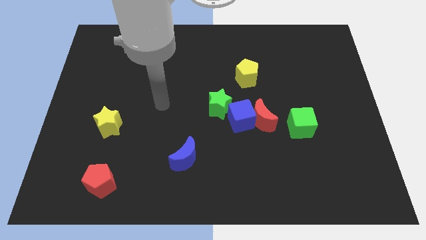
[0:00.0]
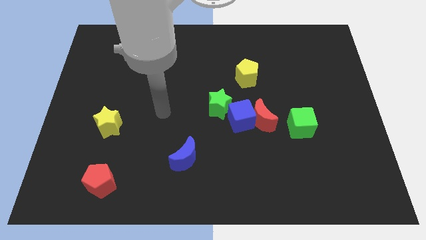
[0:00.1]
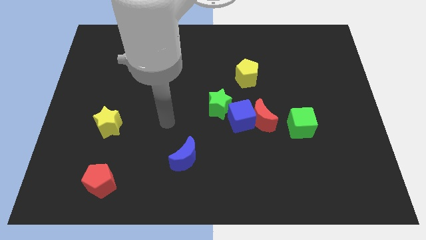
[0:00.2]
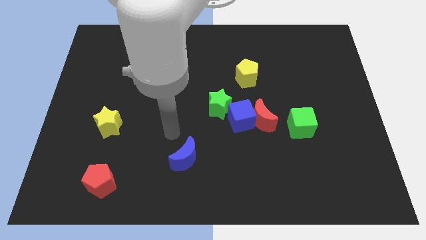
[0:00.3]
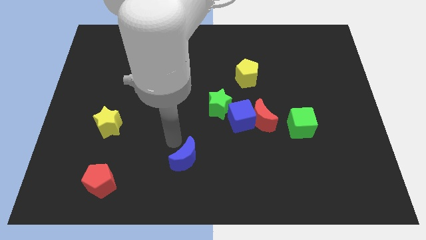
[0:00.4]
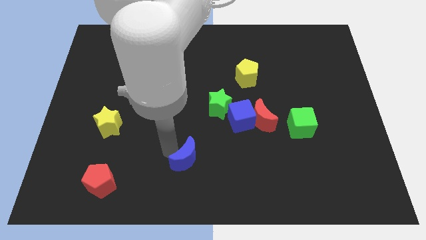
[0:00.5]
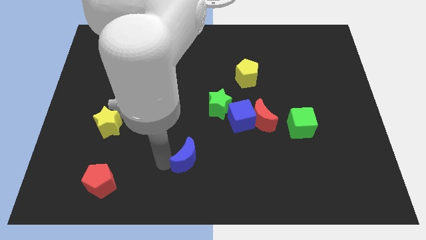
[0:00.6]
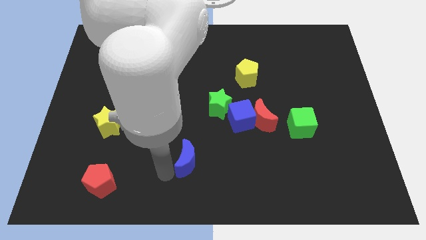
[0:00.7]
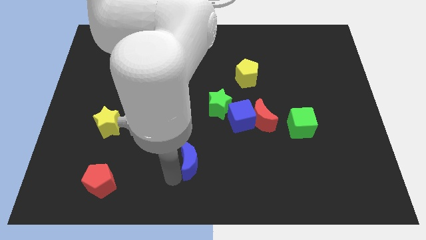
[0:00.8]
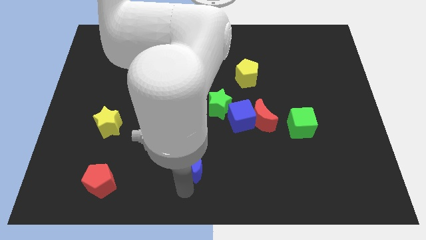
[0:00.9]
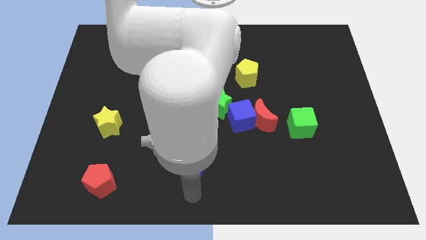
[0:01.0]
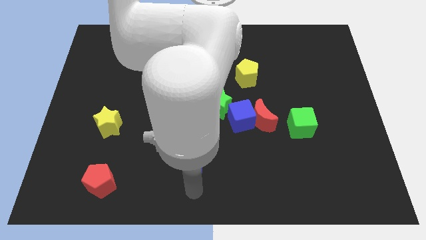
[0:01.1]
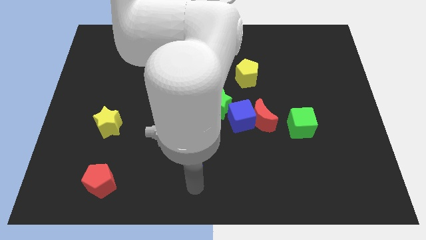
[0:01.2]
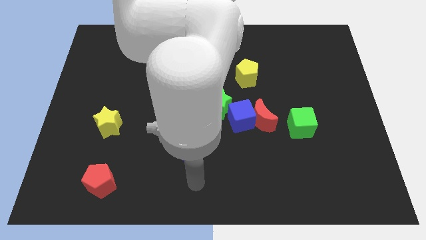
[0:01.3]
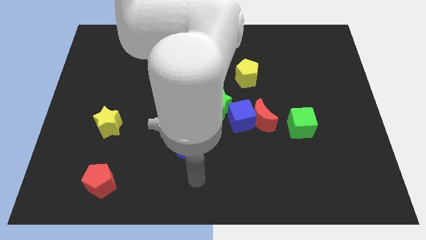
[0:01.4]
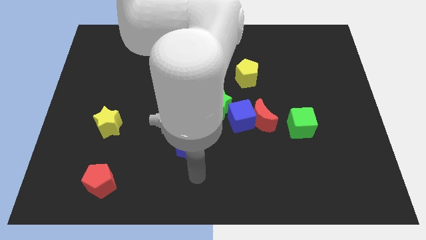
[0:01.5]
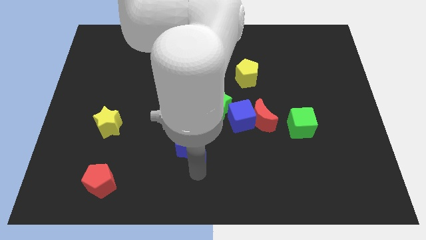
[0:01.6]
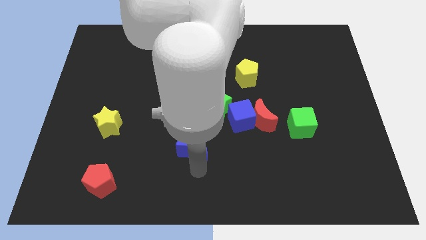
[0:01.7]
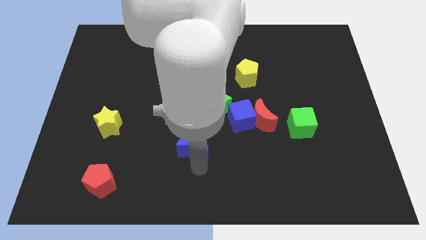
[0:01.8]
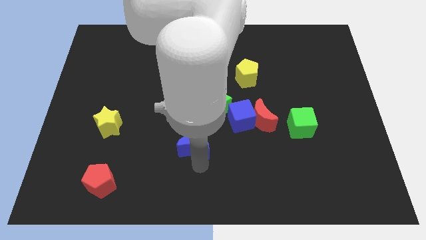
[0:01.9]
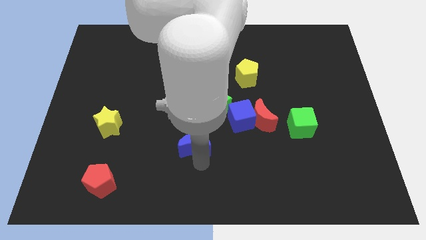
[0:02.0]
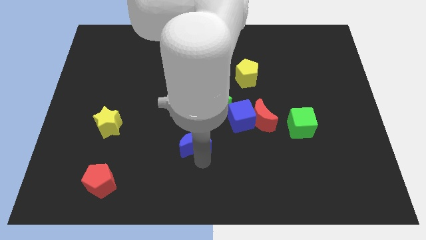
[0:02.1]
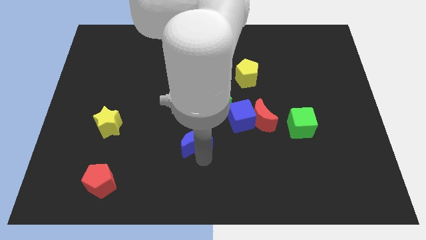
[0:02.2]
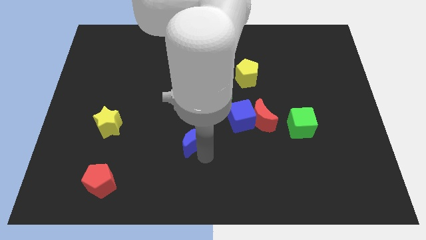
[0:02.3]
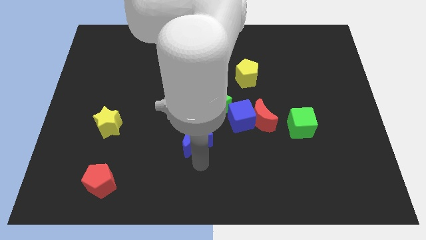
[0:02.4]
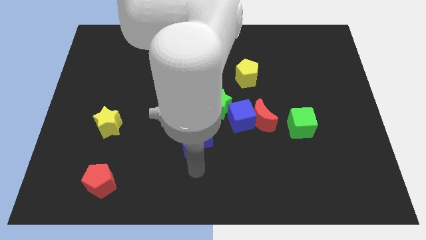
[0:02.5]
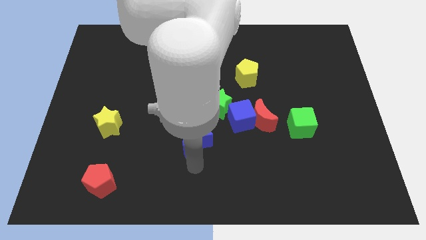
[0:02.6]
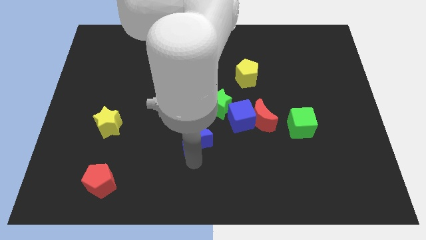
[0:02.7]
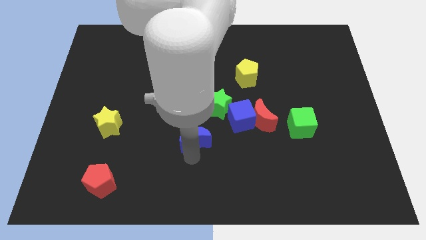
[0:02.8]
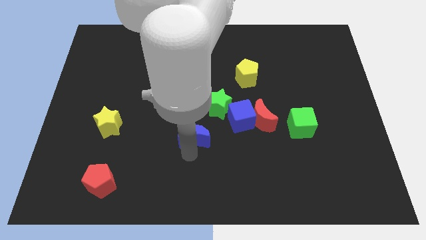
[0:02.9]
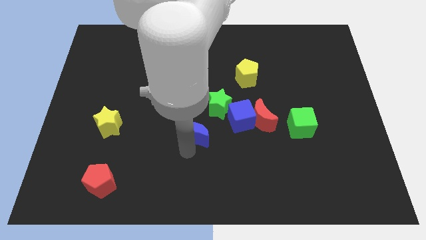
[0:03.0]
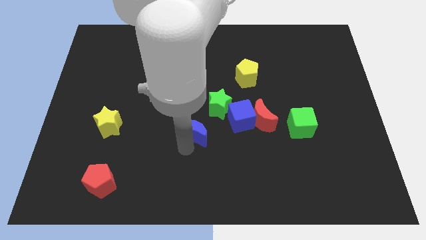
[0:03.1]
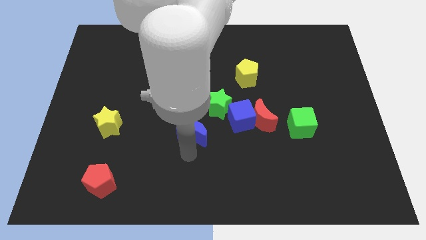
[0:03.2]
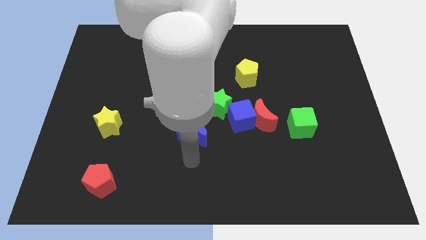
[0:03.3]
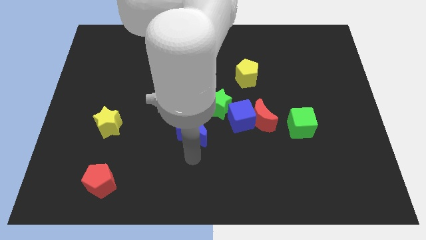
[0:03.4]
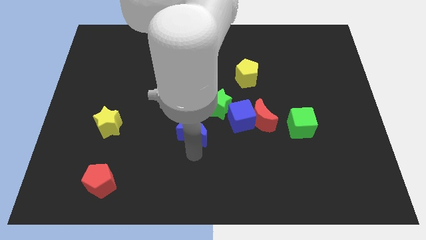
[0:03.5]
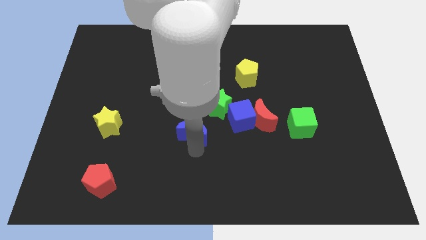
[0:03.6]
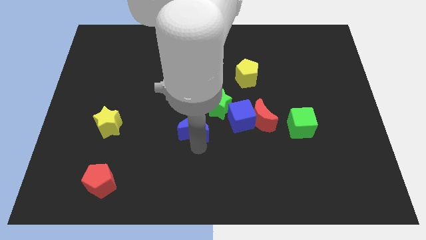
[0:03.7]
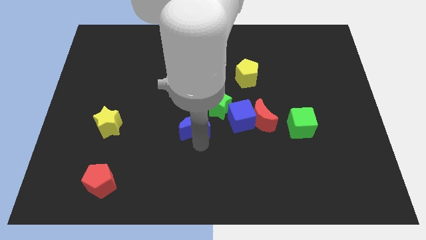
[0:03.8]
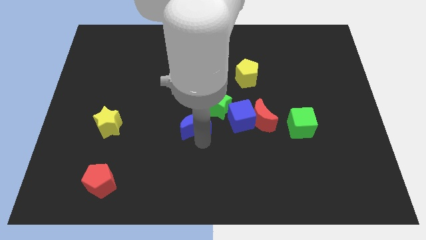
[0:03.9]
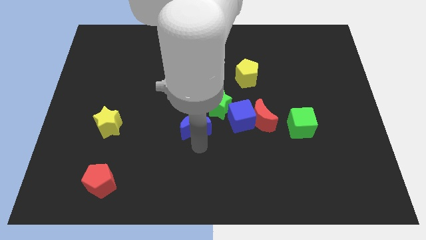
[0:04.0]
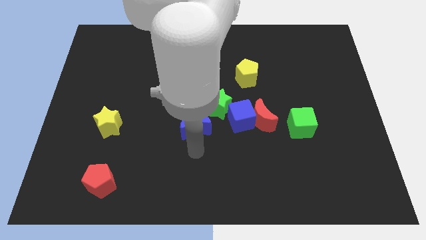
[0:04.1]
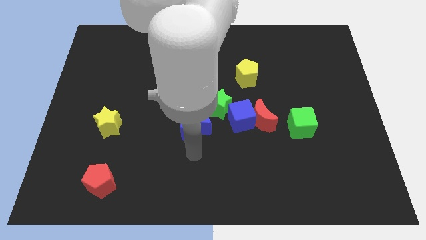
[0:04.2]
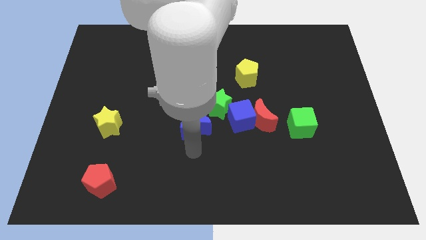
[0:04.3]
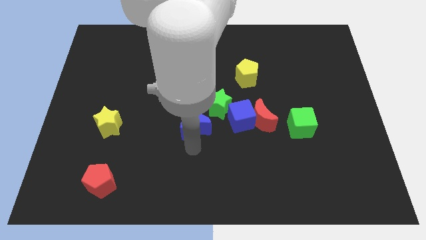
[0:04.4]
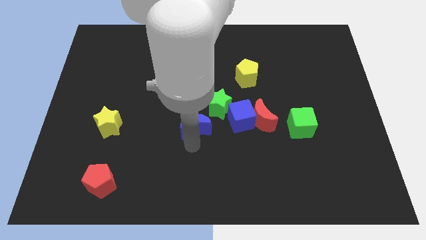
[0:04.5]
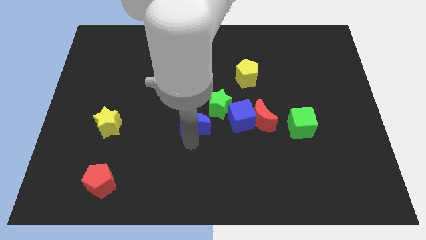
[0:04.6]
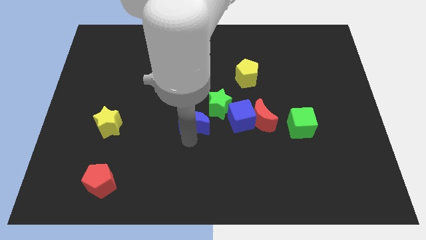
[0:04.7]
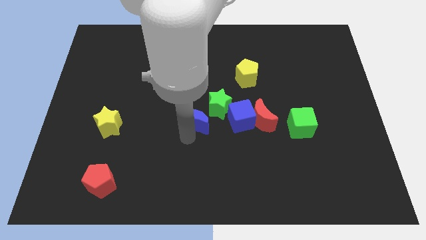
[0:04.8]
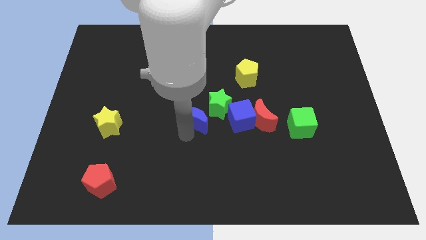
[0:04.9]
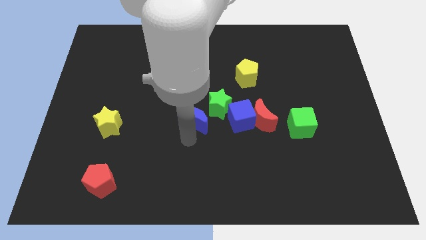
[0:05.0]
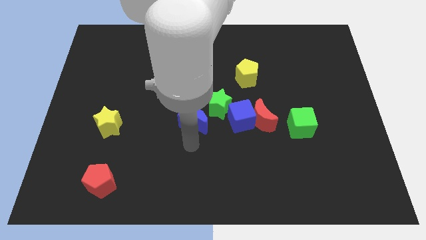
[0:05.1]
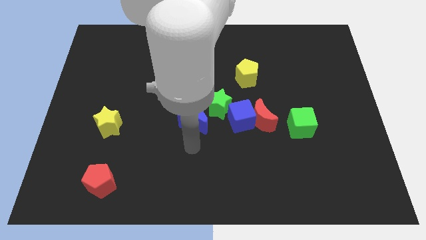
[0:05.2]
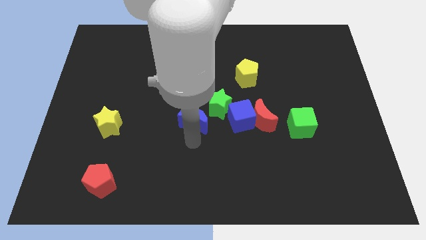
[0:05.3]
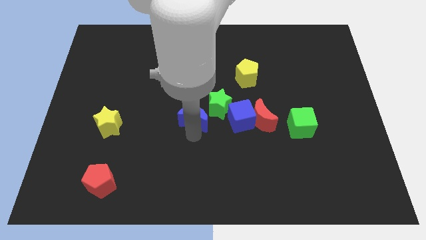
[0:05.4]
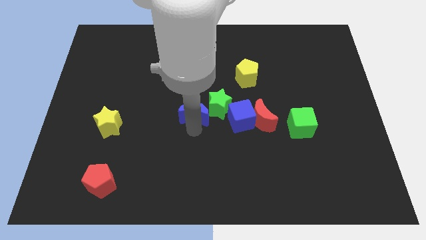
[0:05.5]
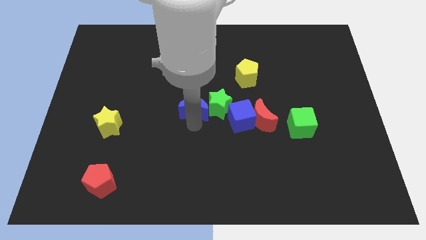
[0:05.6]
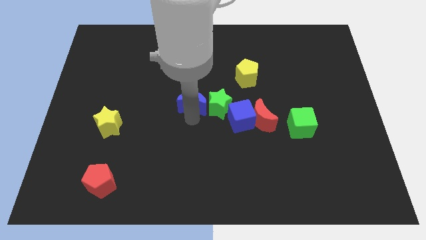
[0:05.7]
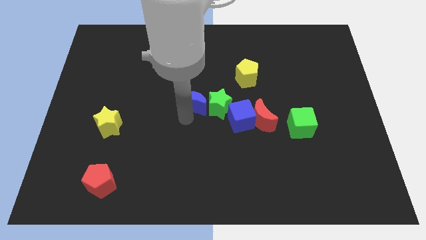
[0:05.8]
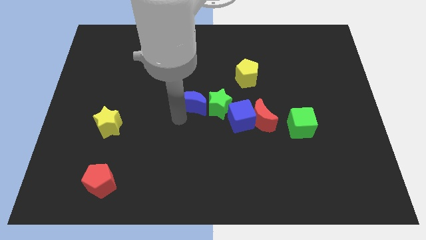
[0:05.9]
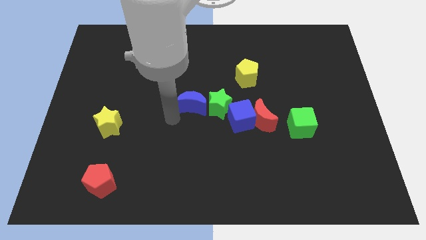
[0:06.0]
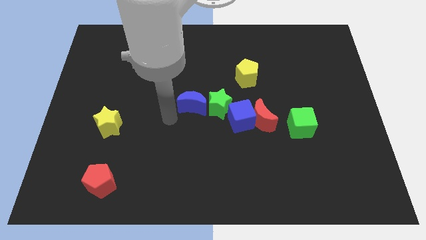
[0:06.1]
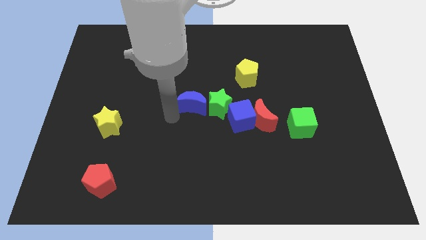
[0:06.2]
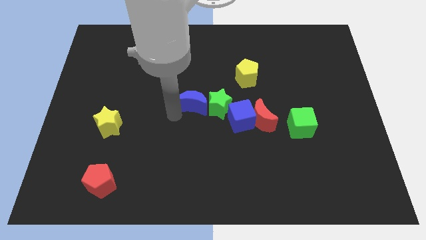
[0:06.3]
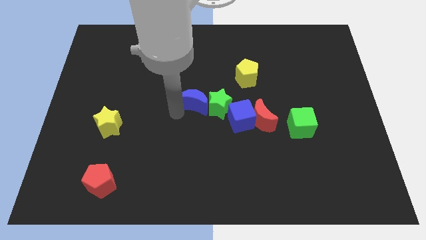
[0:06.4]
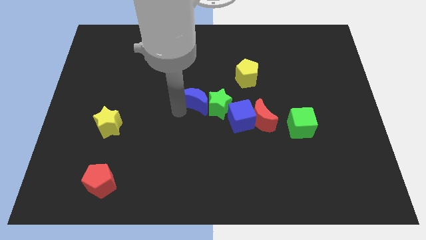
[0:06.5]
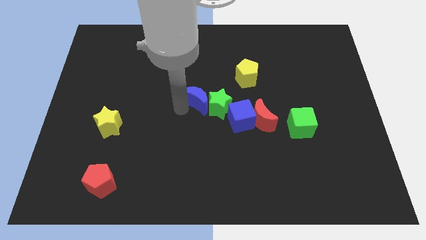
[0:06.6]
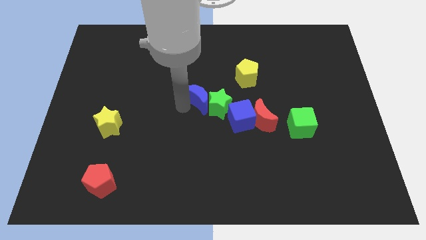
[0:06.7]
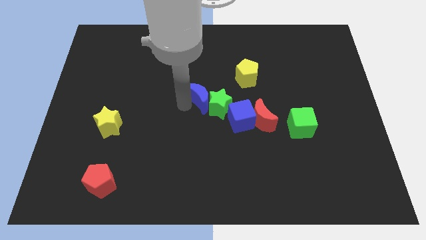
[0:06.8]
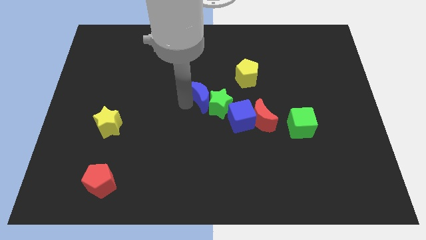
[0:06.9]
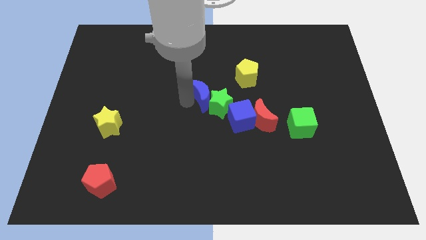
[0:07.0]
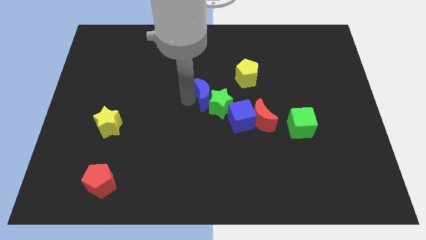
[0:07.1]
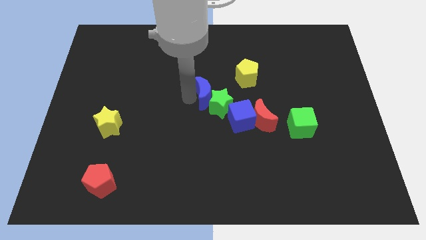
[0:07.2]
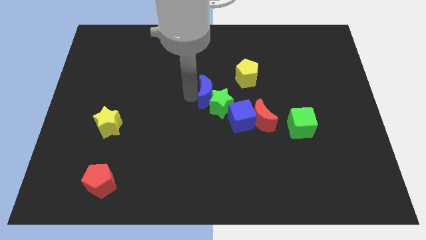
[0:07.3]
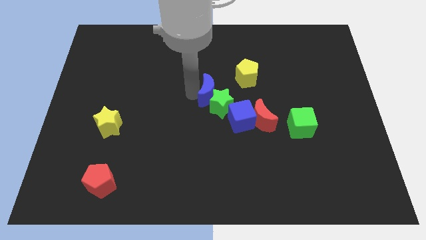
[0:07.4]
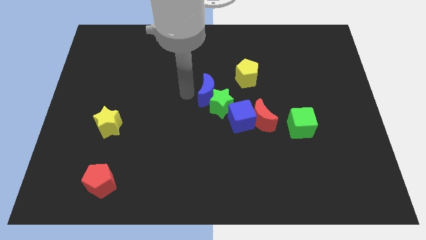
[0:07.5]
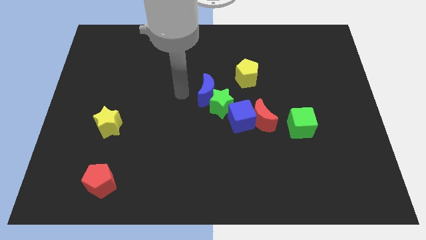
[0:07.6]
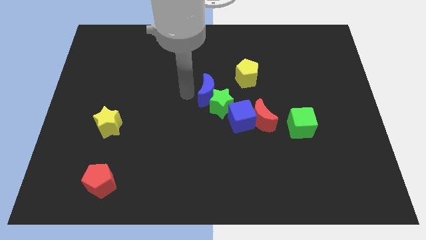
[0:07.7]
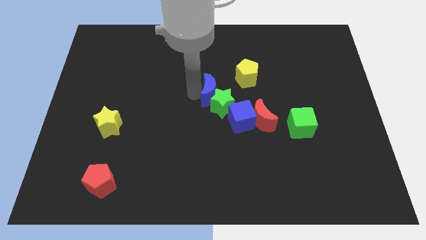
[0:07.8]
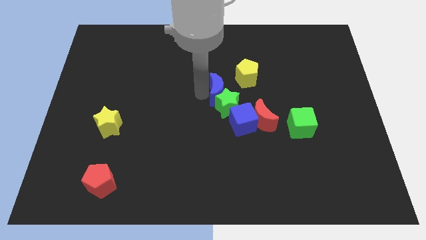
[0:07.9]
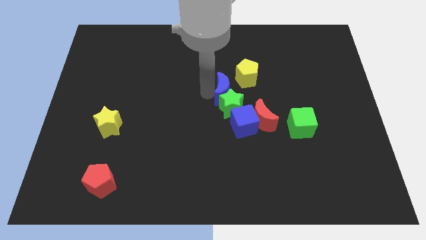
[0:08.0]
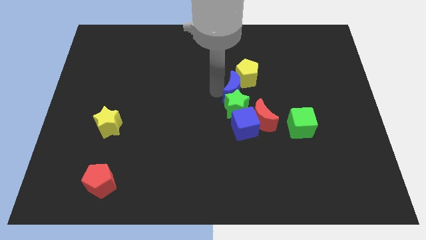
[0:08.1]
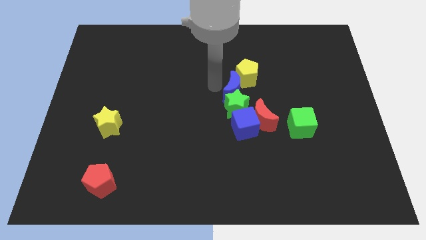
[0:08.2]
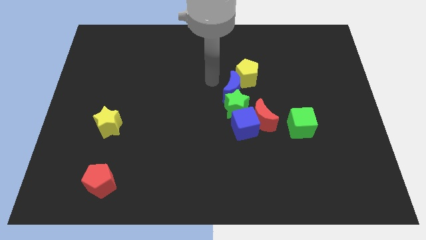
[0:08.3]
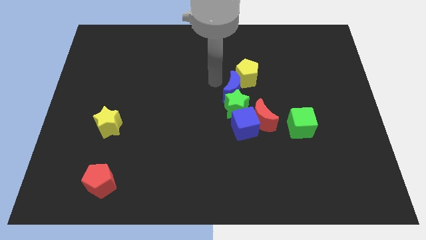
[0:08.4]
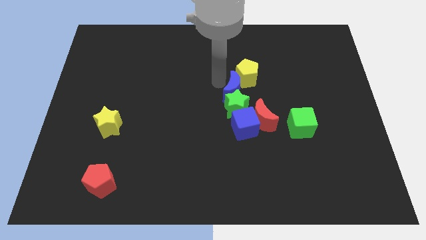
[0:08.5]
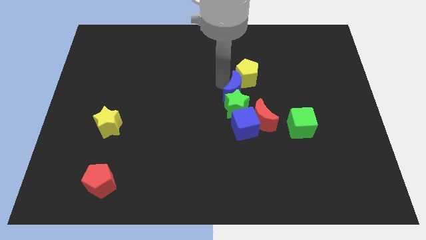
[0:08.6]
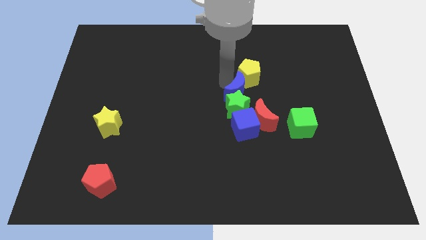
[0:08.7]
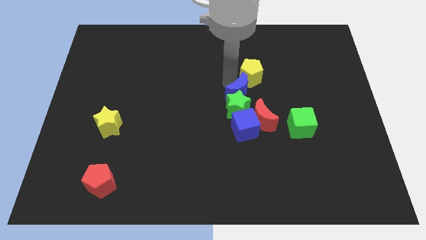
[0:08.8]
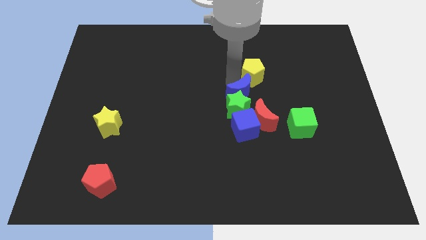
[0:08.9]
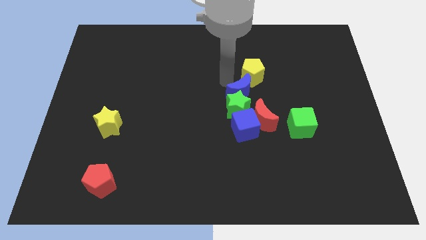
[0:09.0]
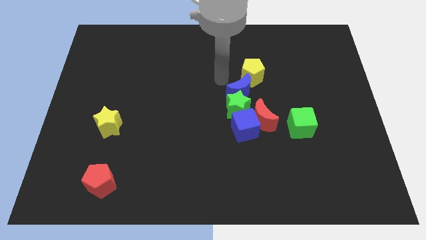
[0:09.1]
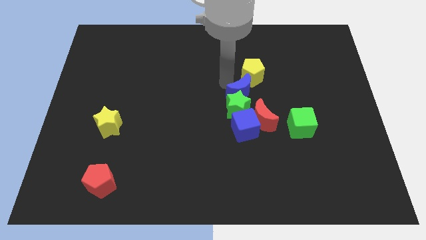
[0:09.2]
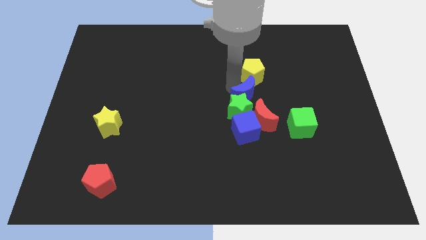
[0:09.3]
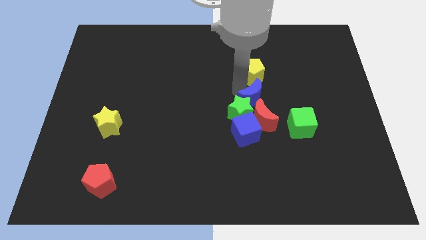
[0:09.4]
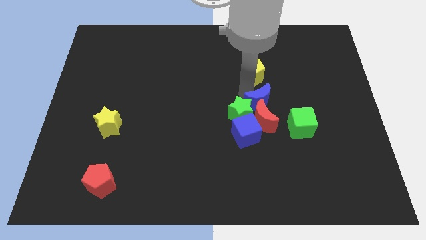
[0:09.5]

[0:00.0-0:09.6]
move the blue moon to the top right side of the blue cube
